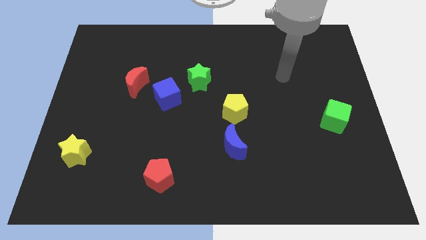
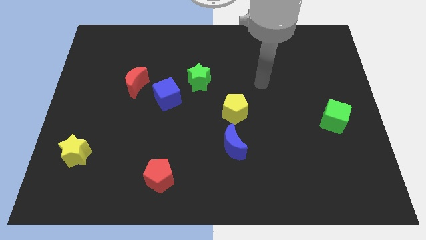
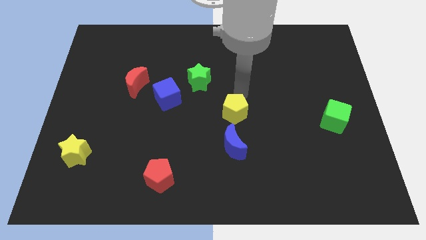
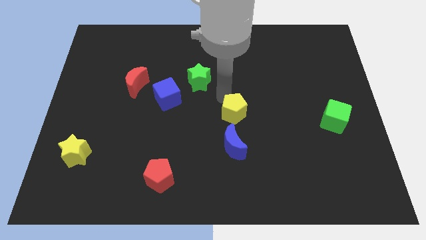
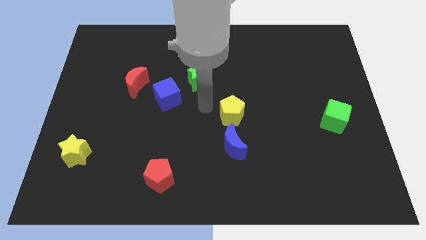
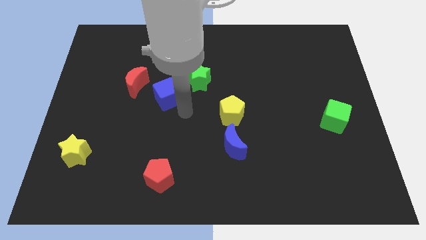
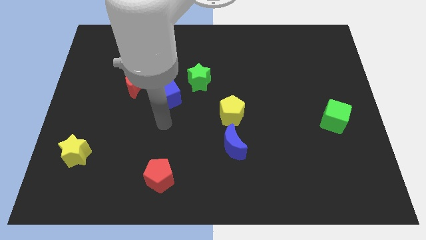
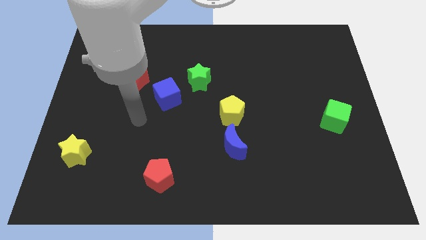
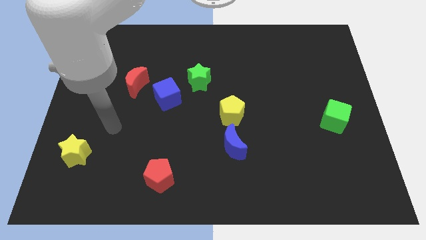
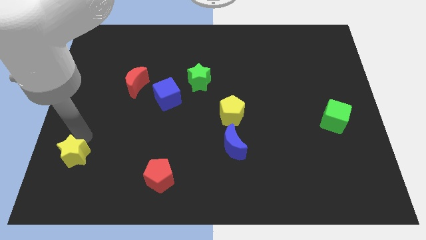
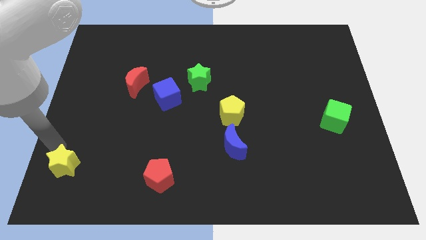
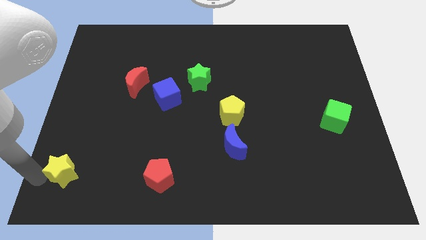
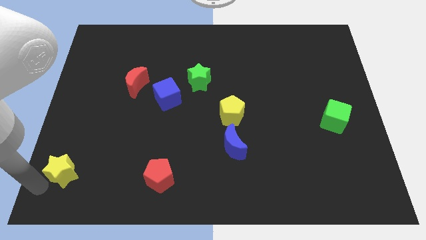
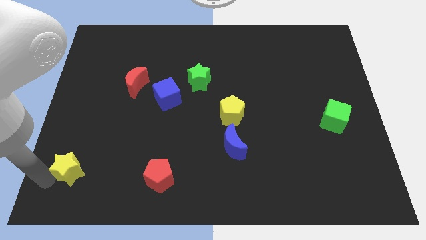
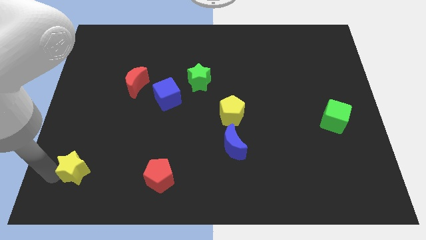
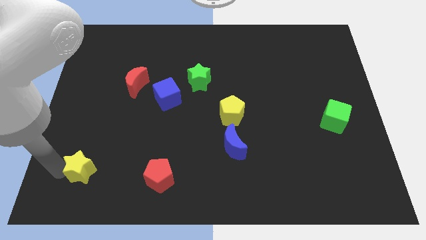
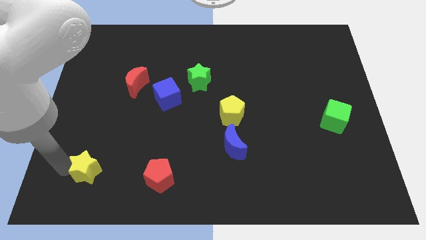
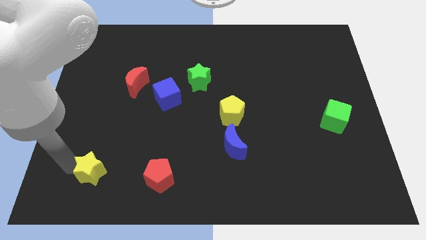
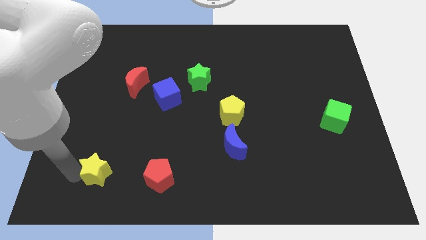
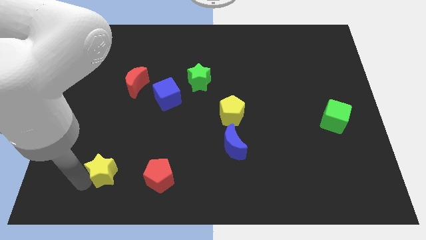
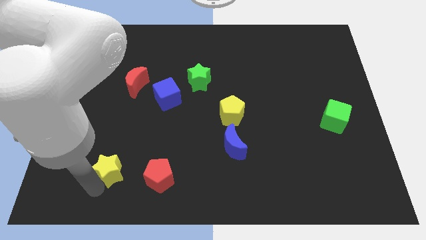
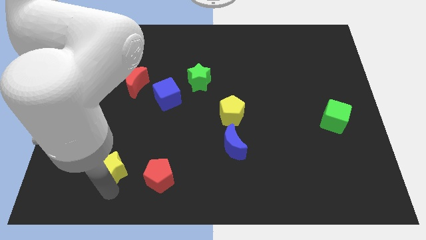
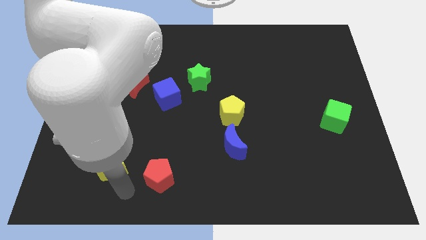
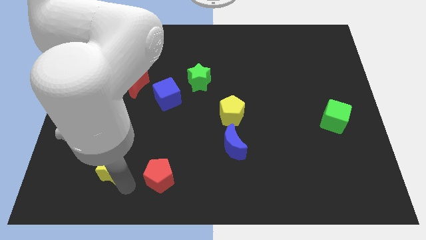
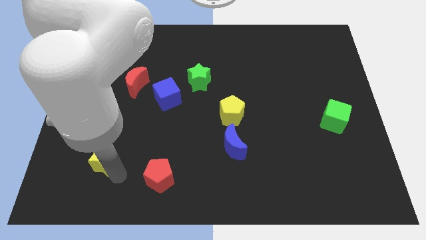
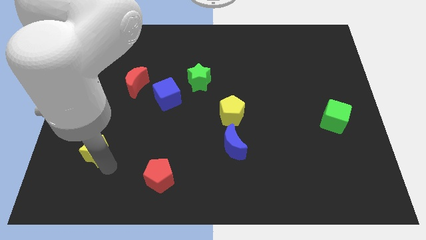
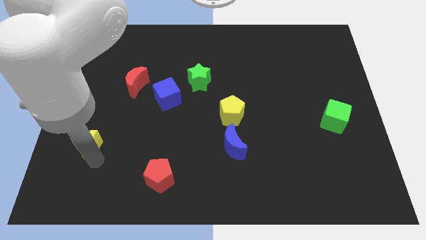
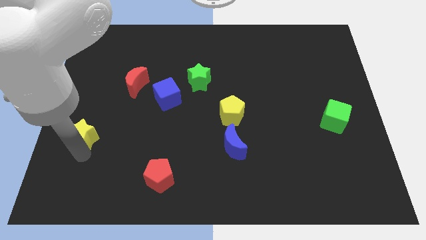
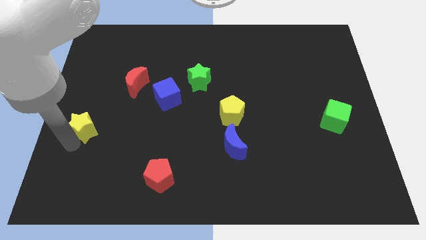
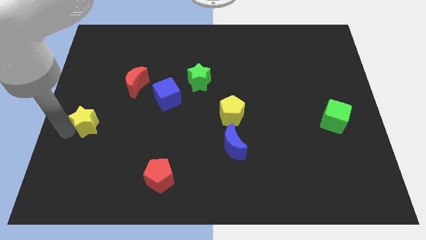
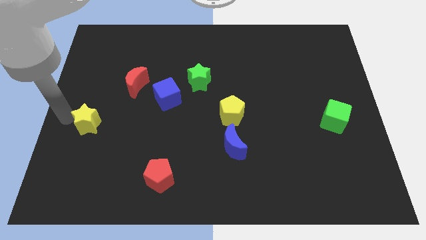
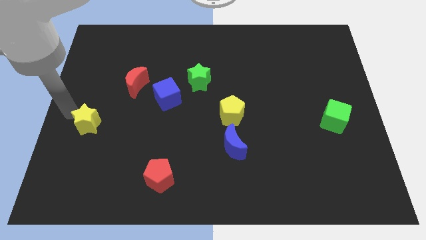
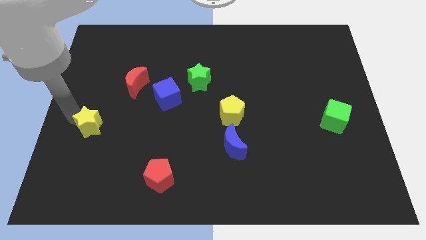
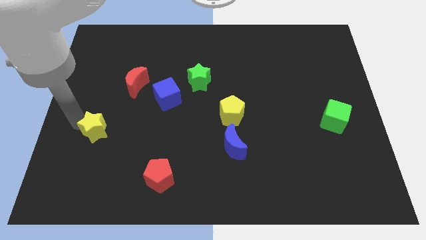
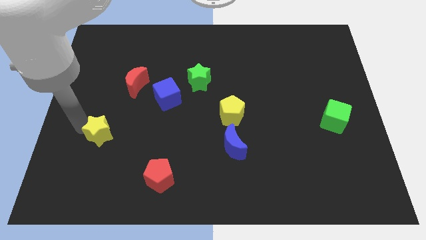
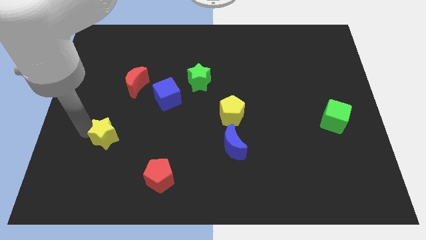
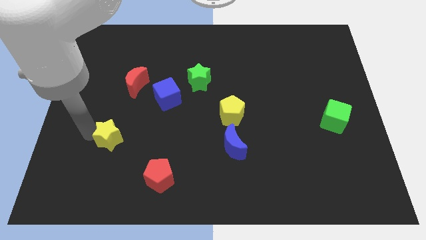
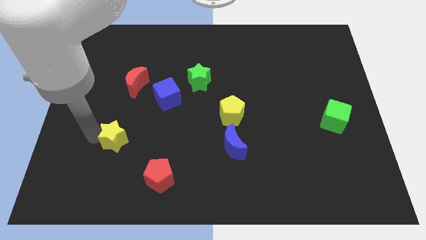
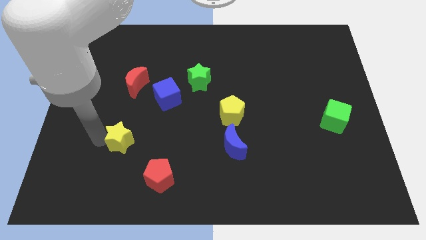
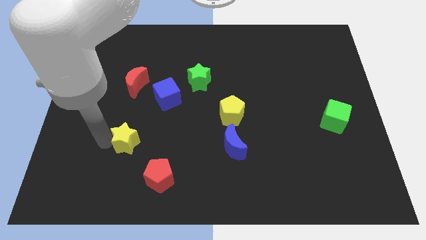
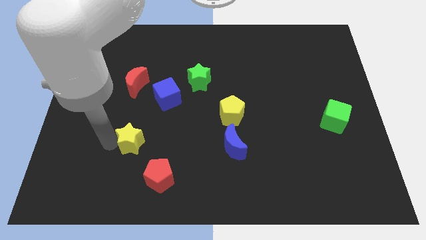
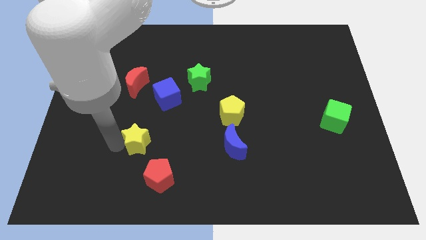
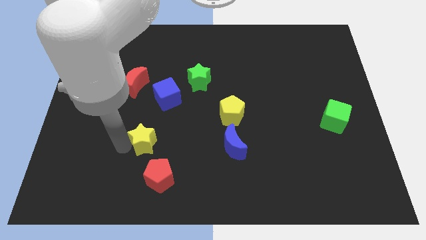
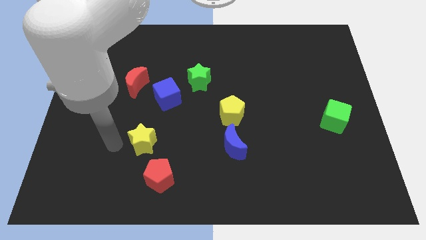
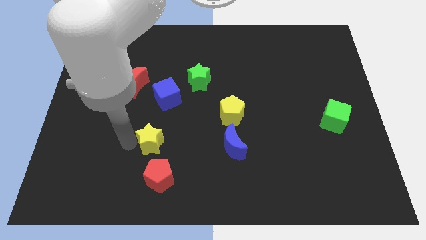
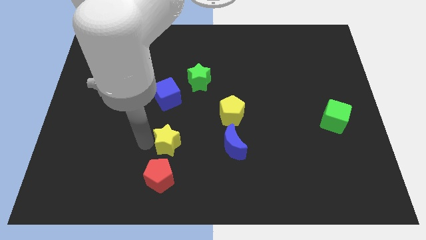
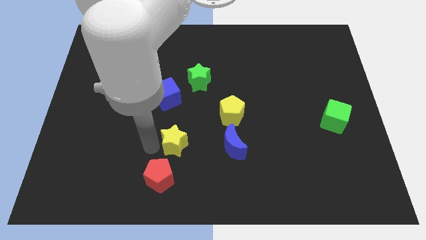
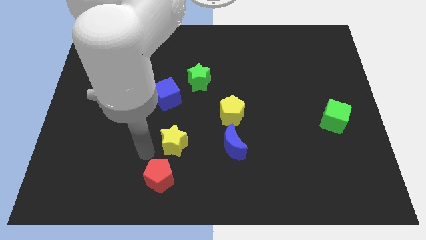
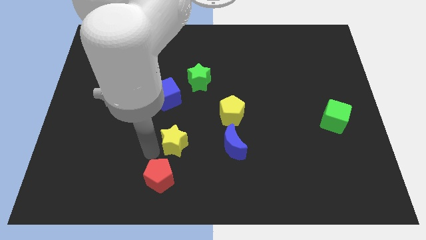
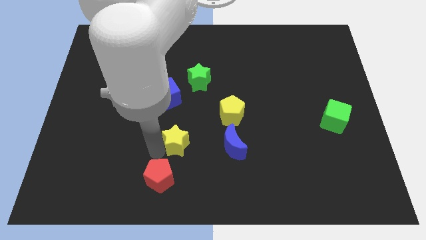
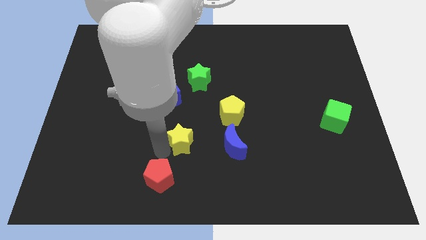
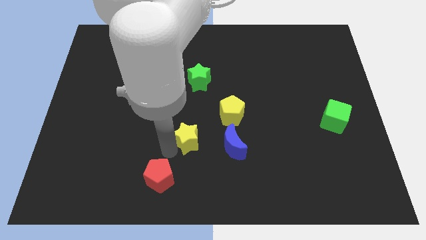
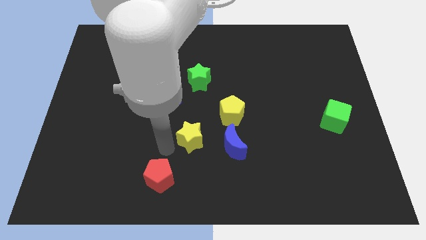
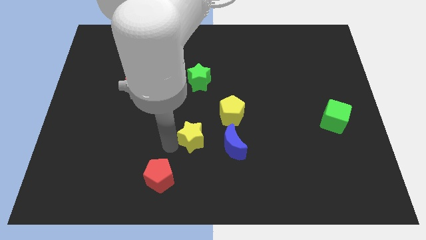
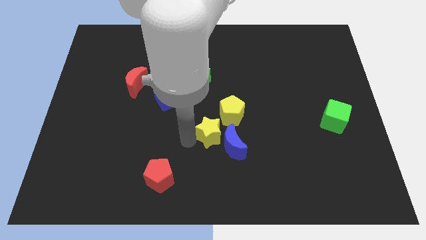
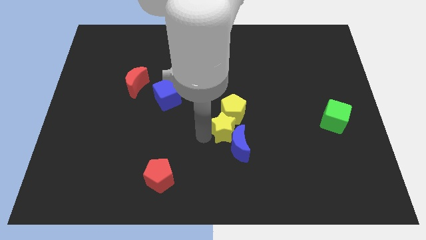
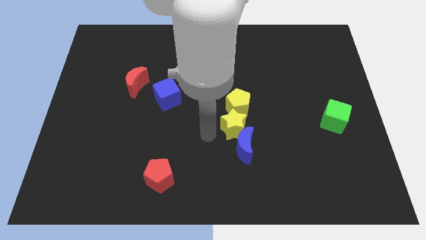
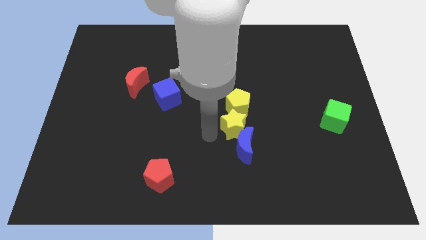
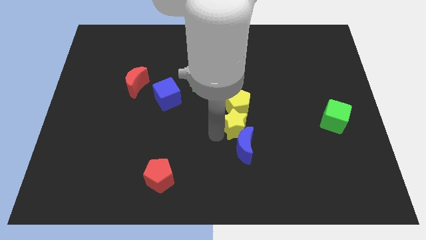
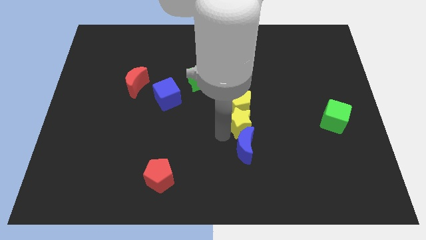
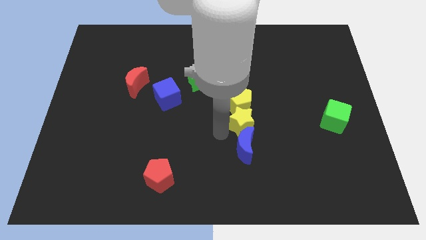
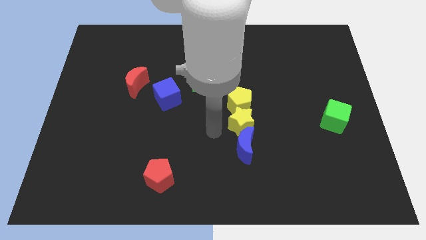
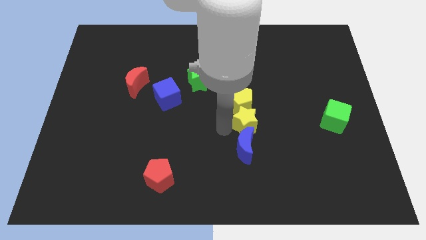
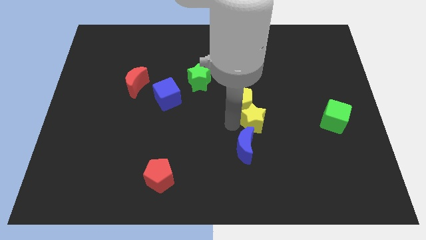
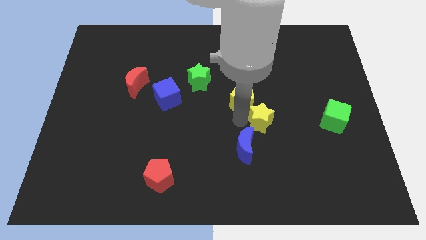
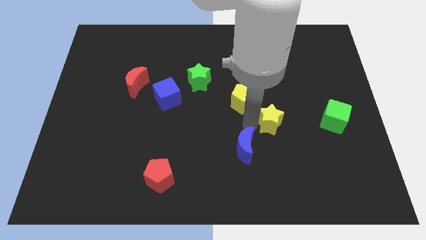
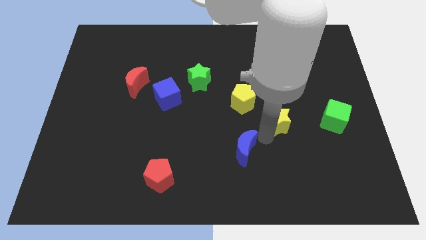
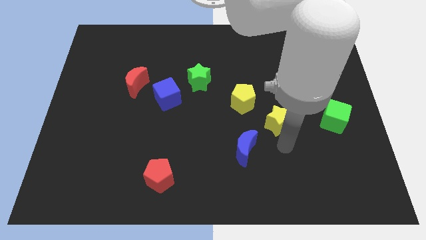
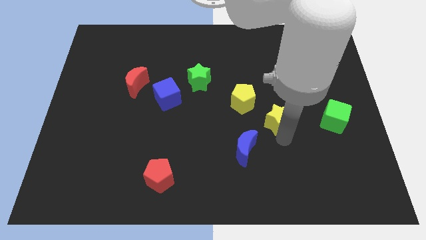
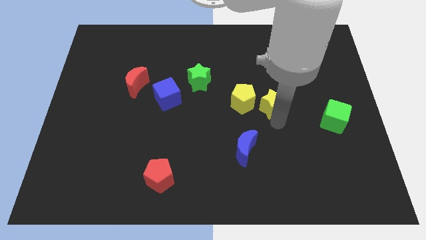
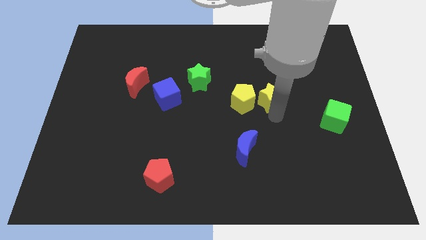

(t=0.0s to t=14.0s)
put the yellow star diagonally up and to the right of the yellow pentagon

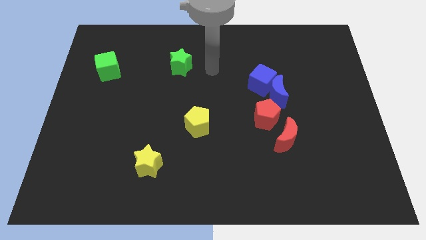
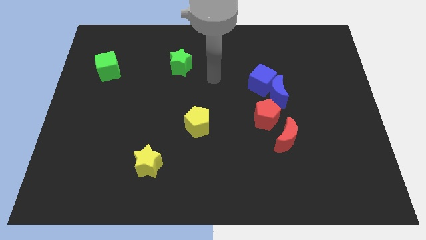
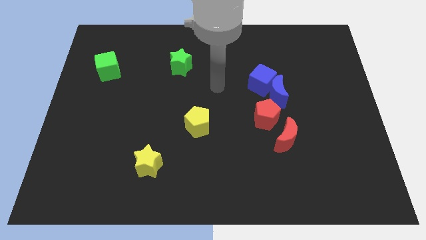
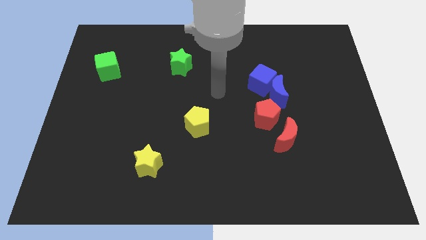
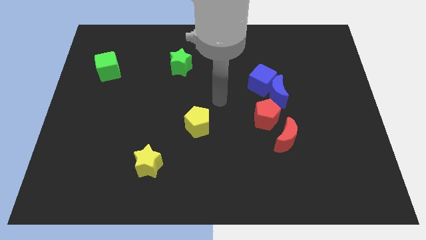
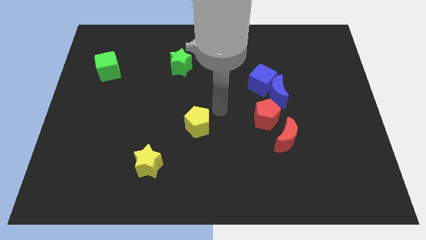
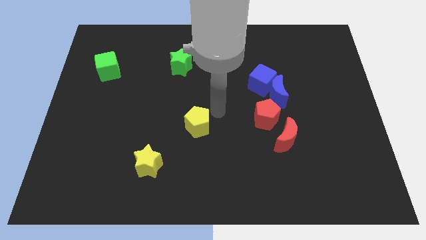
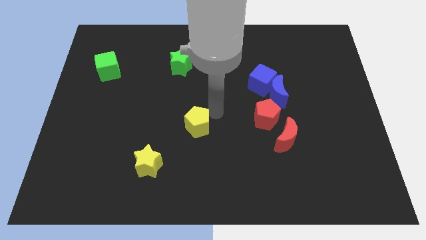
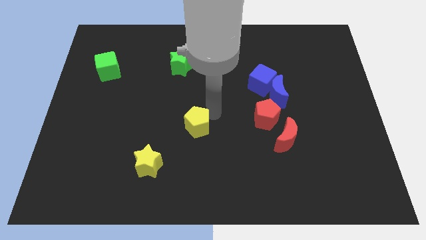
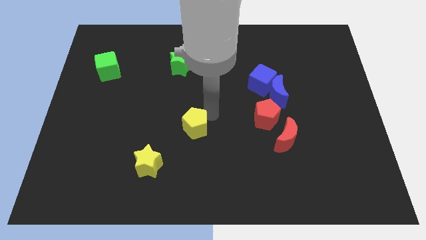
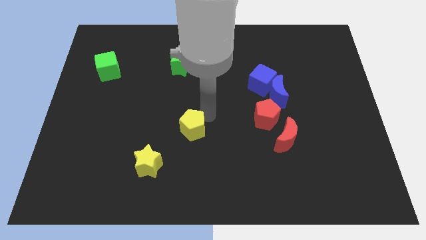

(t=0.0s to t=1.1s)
put the yellow pentagon to the top right of the yellow star
